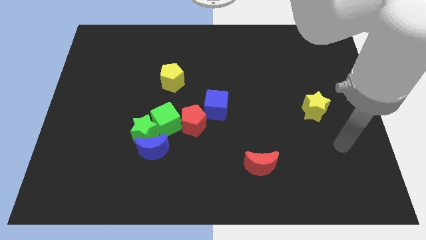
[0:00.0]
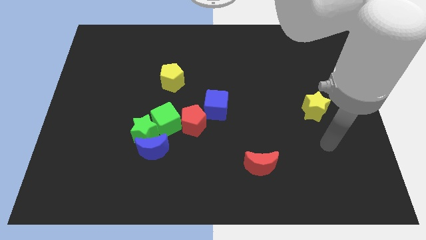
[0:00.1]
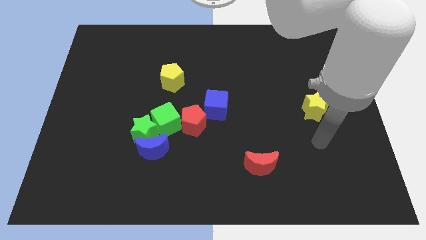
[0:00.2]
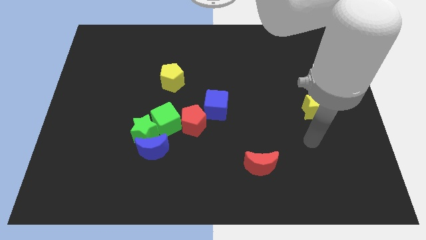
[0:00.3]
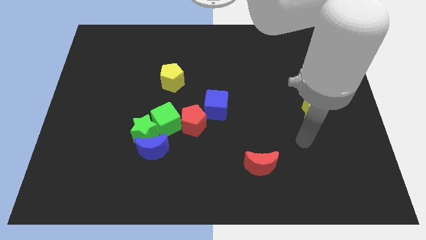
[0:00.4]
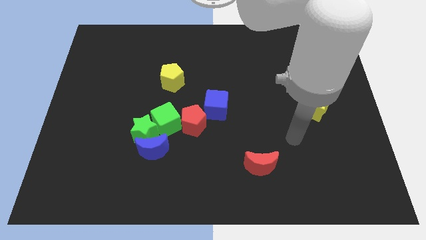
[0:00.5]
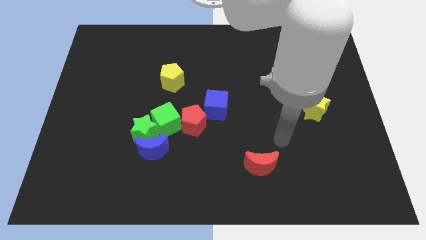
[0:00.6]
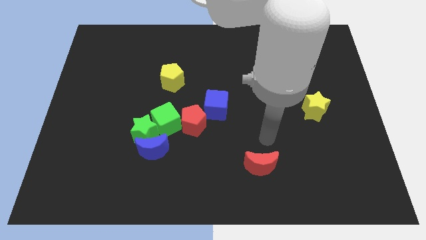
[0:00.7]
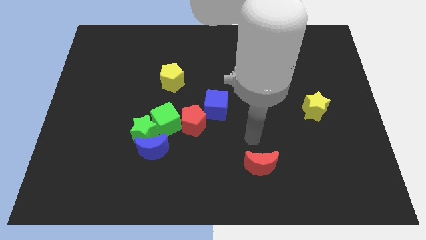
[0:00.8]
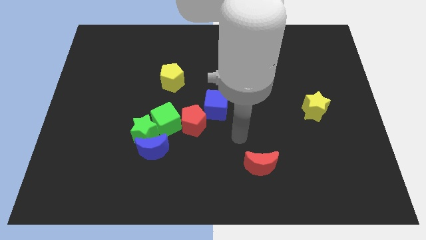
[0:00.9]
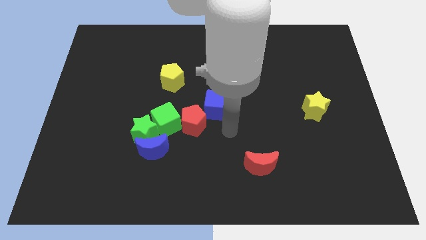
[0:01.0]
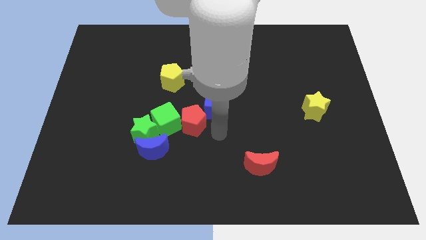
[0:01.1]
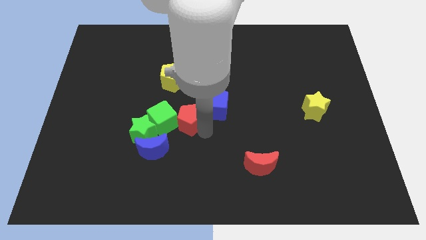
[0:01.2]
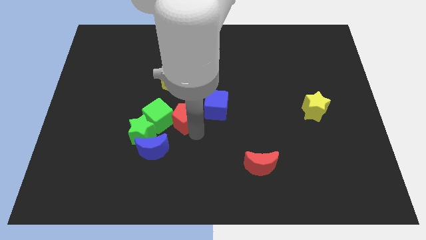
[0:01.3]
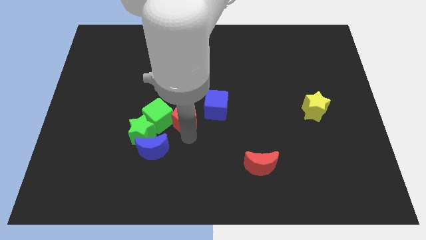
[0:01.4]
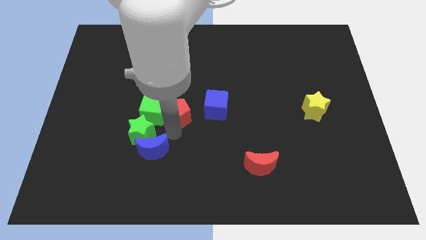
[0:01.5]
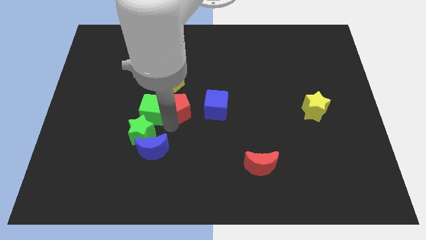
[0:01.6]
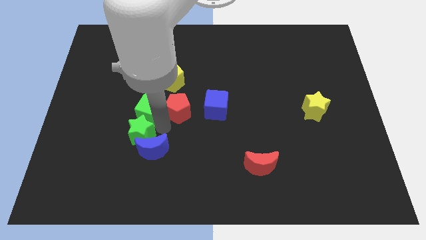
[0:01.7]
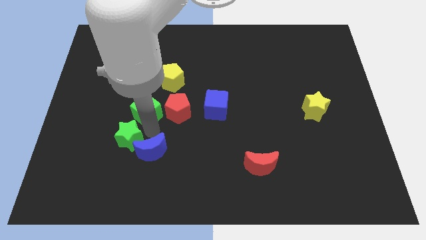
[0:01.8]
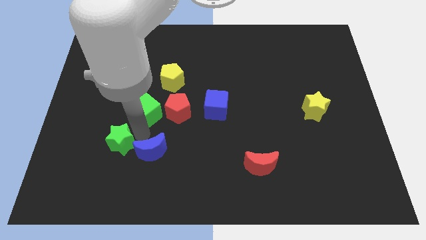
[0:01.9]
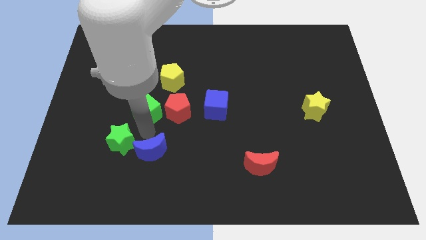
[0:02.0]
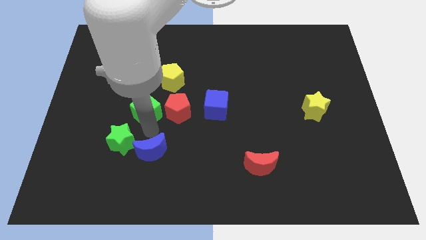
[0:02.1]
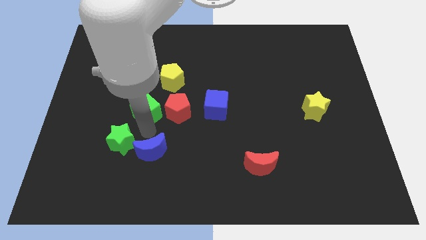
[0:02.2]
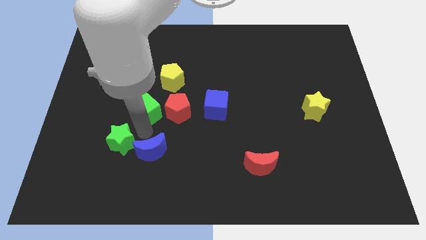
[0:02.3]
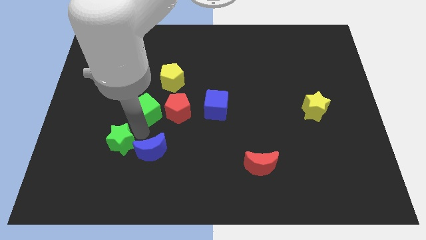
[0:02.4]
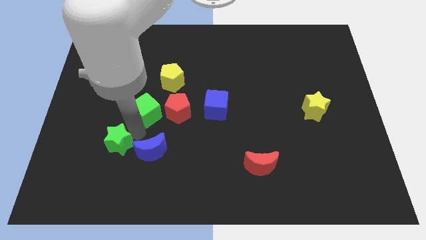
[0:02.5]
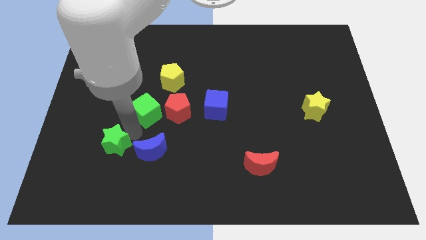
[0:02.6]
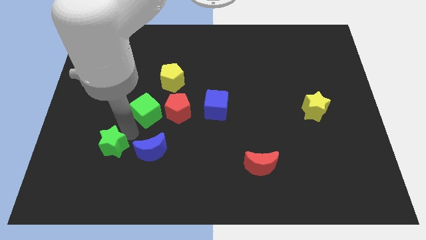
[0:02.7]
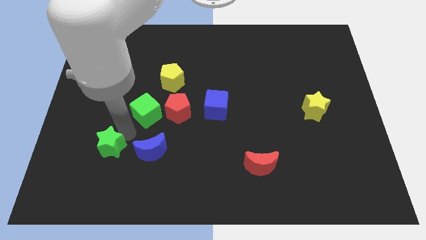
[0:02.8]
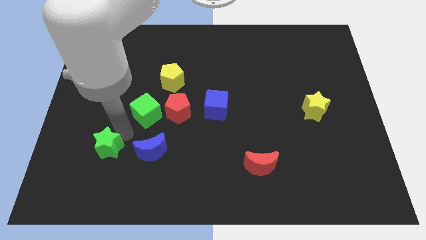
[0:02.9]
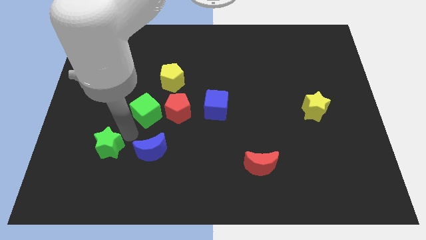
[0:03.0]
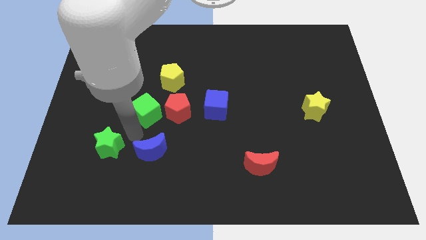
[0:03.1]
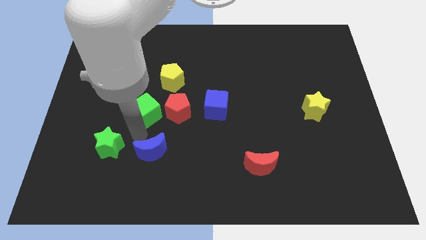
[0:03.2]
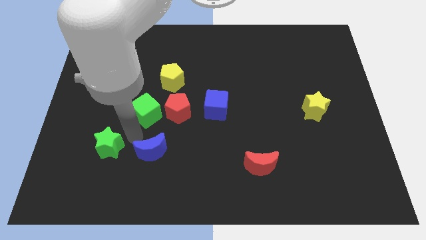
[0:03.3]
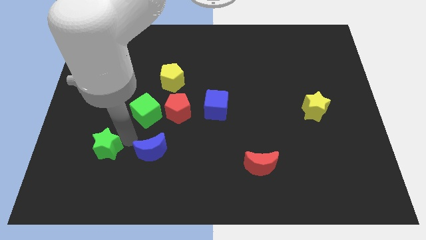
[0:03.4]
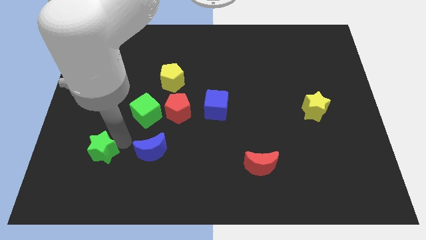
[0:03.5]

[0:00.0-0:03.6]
move the green star away from the blue moon and green cube

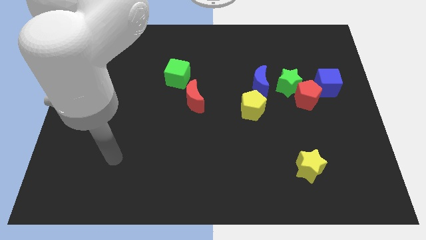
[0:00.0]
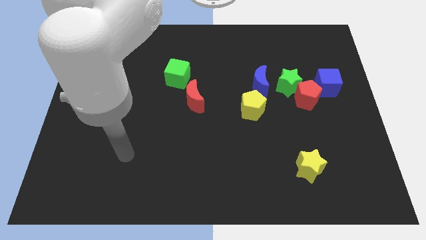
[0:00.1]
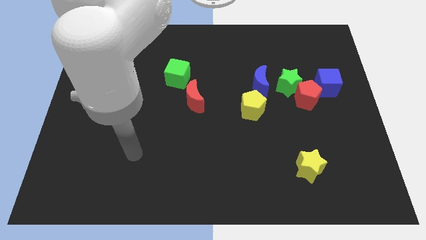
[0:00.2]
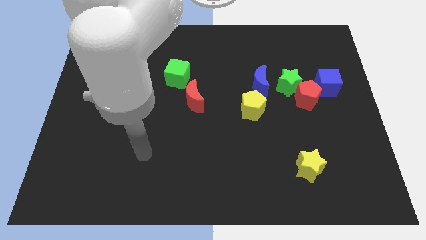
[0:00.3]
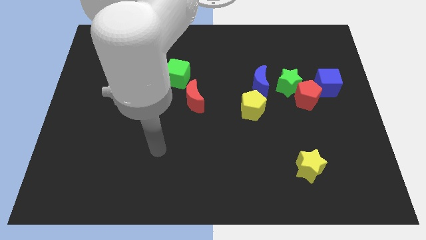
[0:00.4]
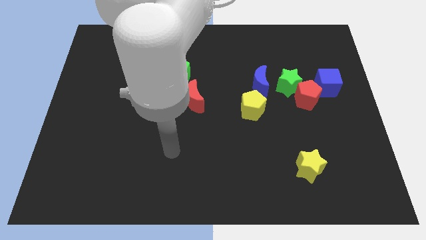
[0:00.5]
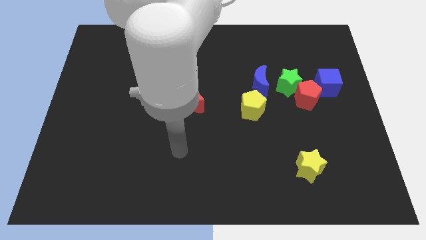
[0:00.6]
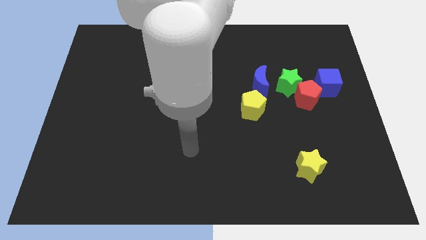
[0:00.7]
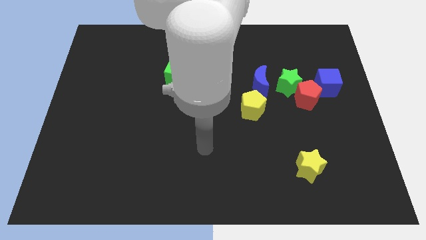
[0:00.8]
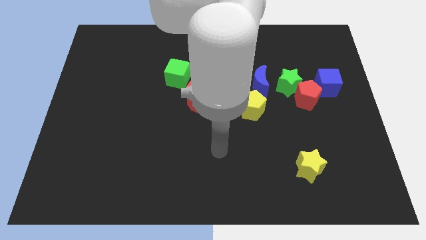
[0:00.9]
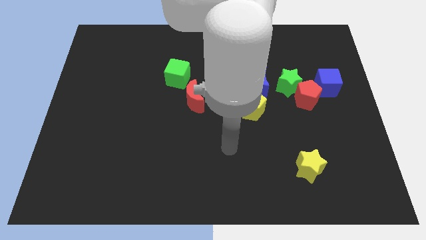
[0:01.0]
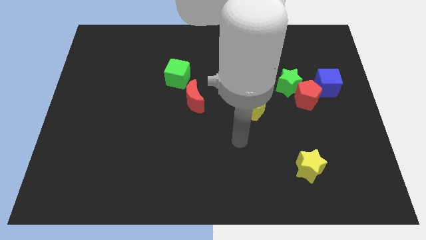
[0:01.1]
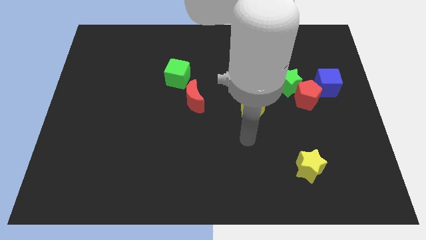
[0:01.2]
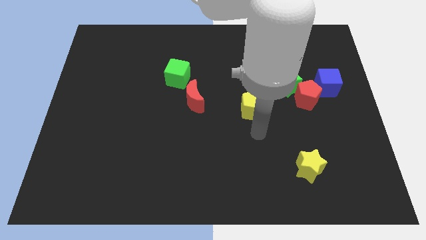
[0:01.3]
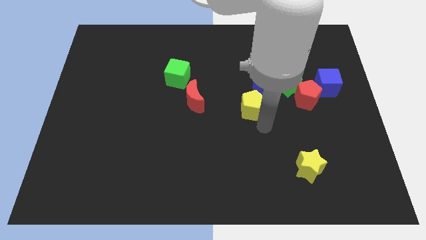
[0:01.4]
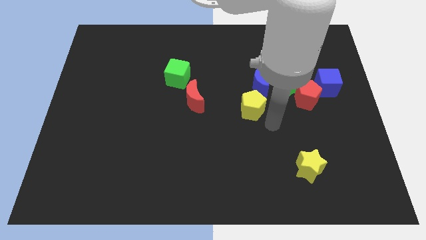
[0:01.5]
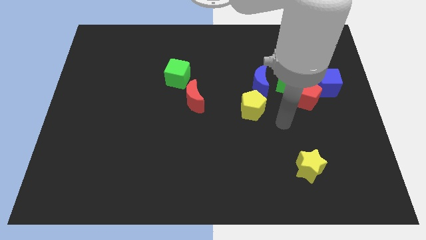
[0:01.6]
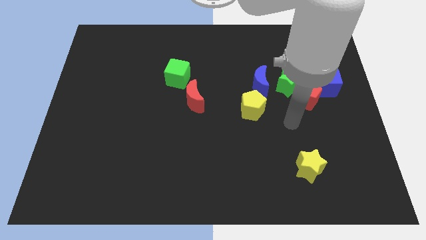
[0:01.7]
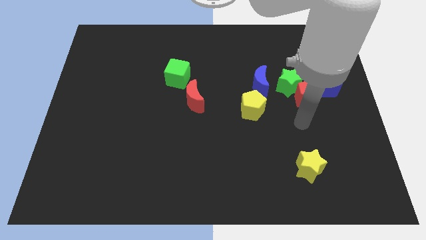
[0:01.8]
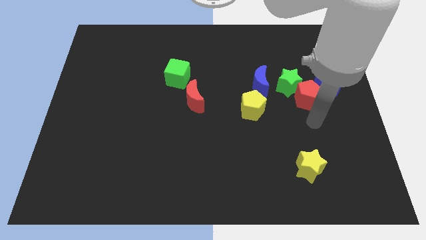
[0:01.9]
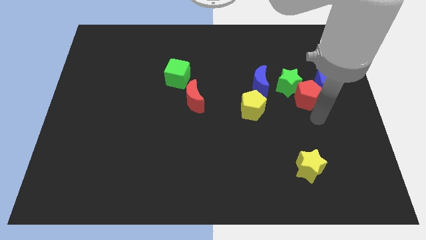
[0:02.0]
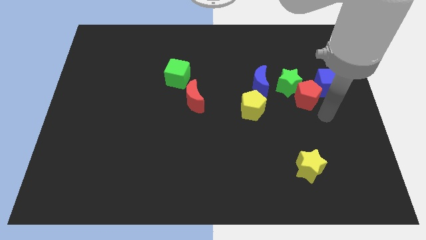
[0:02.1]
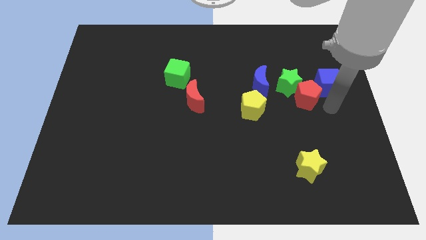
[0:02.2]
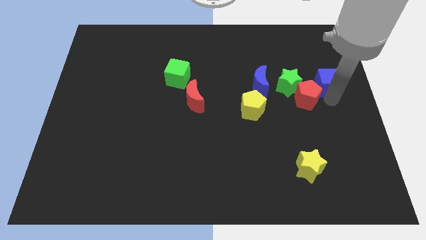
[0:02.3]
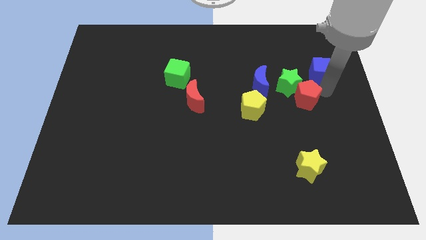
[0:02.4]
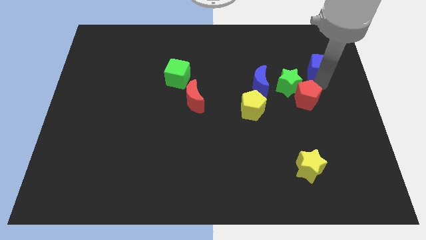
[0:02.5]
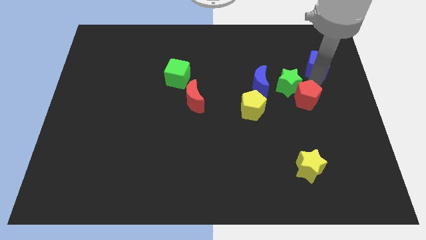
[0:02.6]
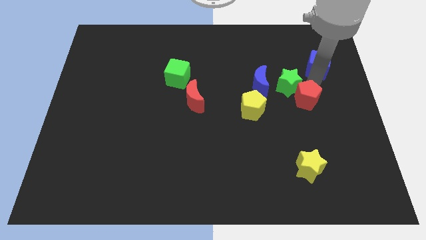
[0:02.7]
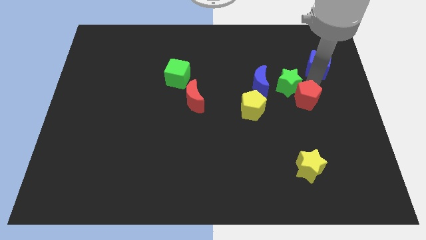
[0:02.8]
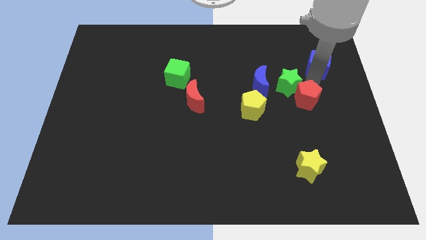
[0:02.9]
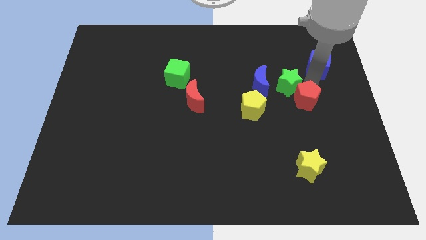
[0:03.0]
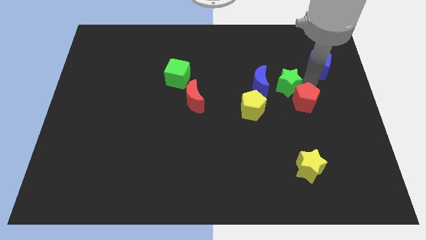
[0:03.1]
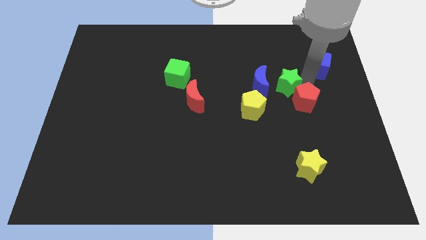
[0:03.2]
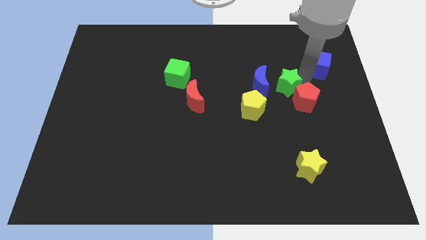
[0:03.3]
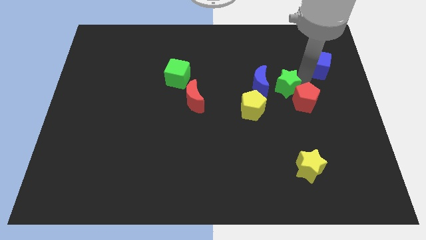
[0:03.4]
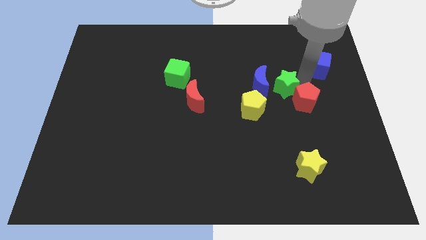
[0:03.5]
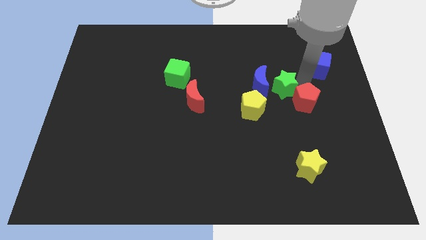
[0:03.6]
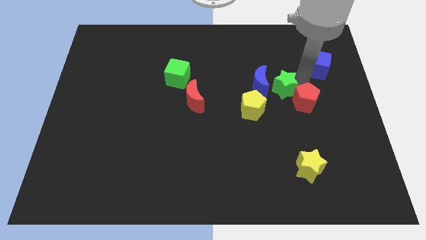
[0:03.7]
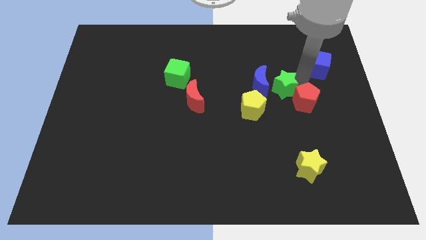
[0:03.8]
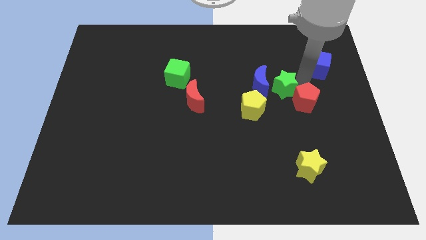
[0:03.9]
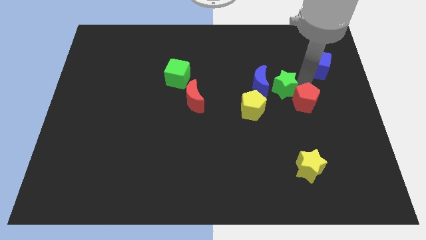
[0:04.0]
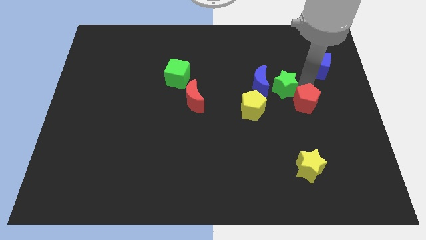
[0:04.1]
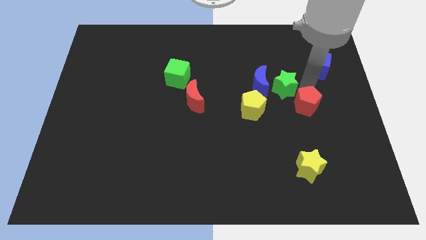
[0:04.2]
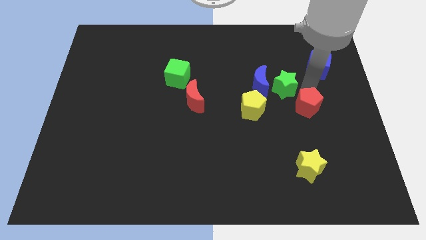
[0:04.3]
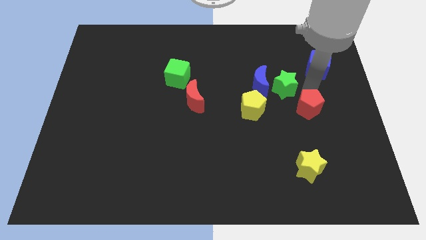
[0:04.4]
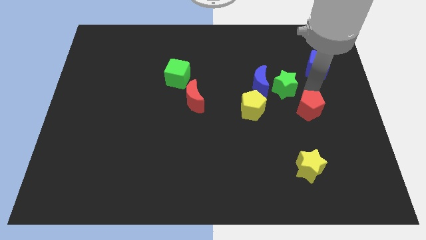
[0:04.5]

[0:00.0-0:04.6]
pull the red pentagon apart from the green star and blue cube

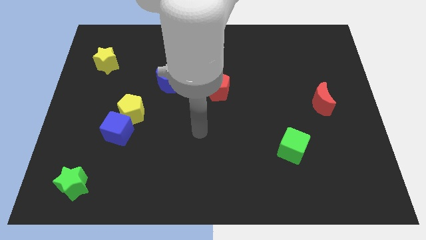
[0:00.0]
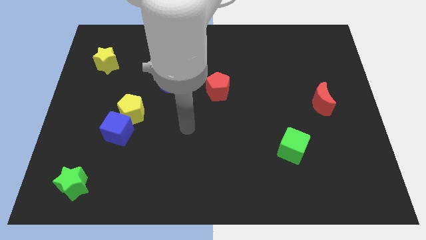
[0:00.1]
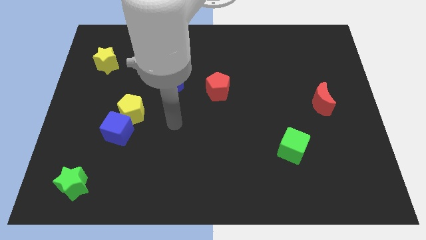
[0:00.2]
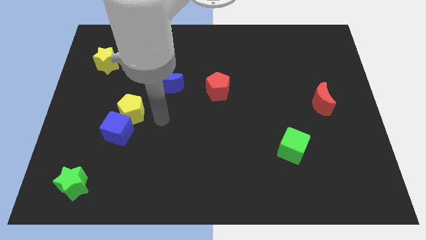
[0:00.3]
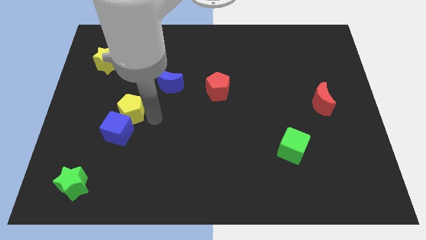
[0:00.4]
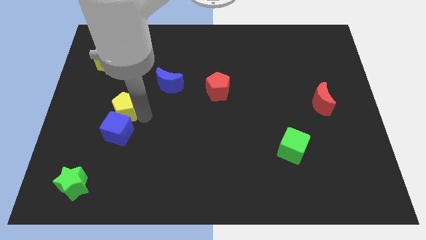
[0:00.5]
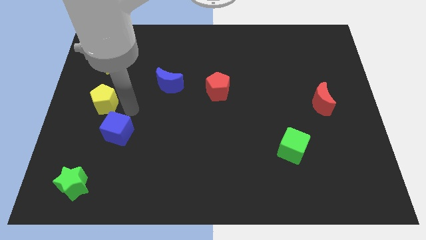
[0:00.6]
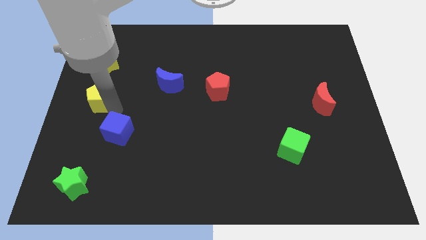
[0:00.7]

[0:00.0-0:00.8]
separate the blue cube from the yellow pentagon

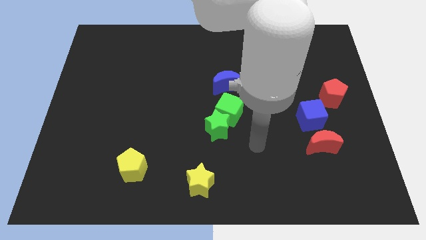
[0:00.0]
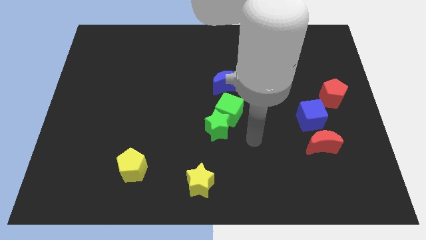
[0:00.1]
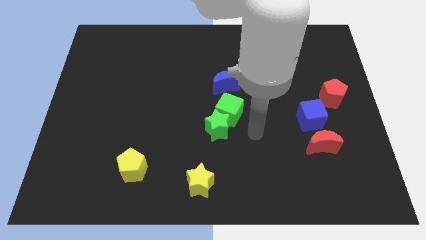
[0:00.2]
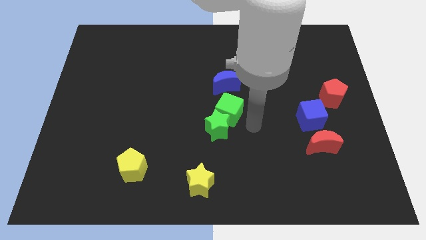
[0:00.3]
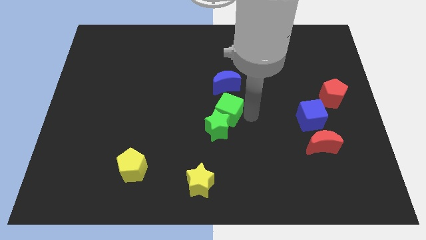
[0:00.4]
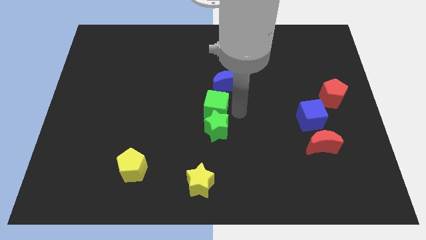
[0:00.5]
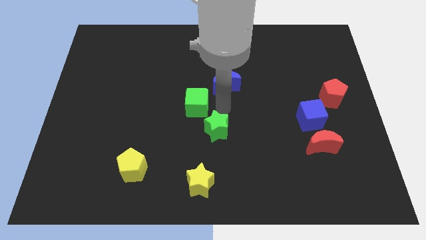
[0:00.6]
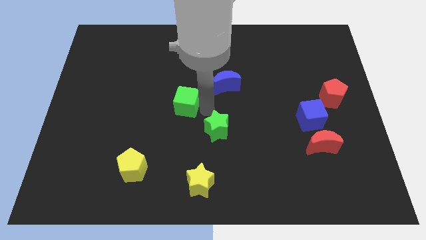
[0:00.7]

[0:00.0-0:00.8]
pull the green star apart from the green cube
